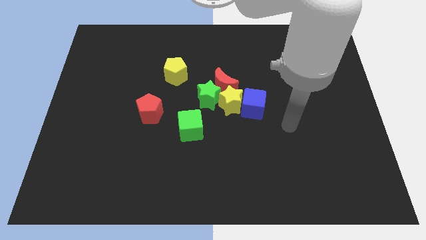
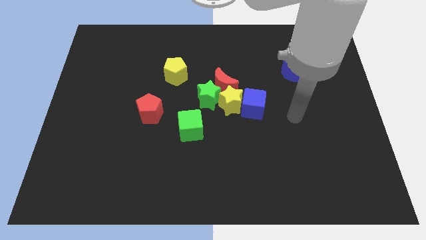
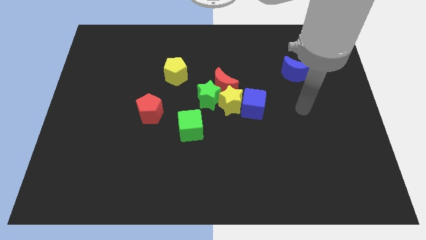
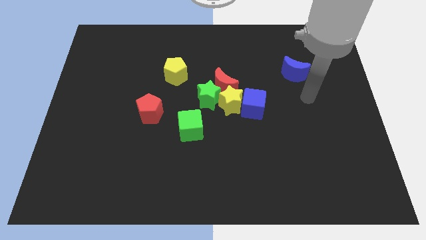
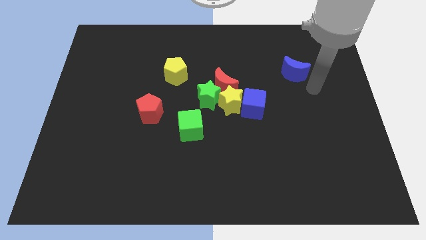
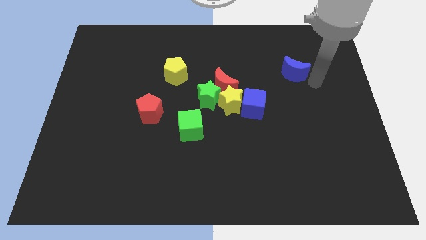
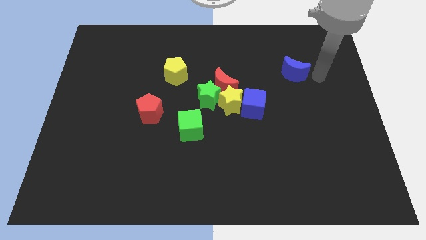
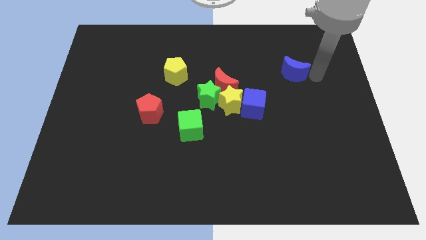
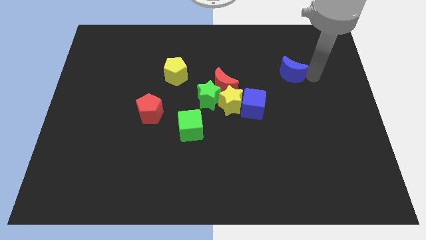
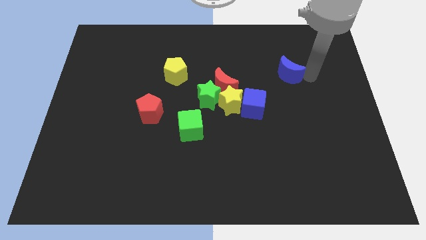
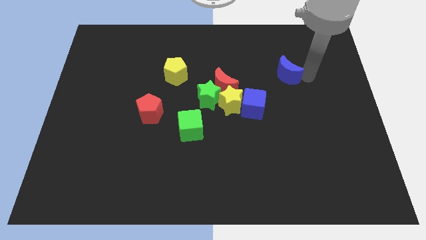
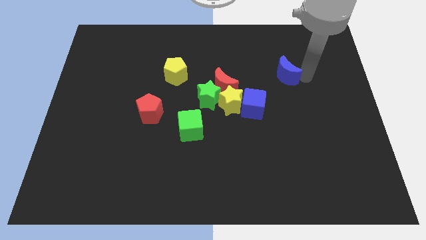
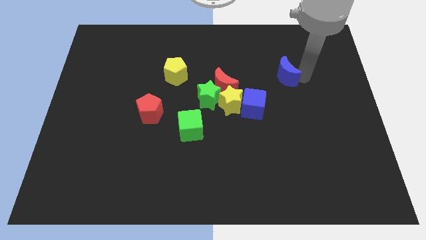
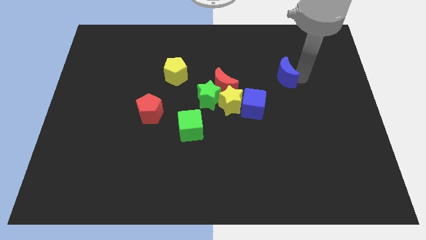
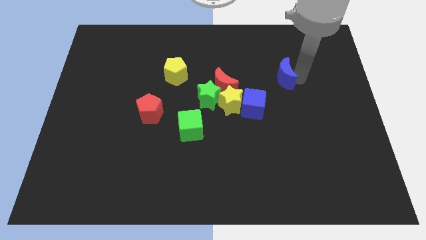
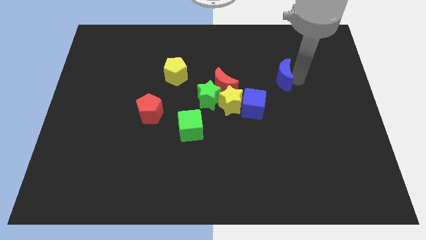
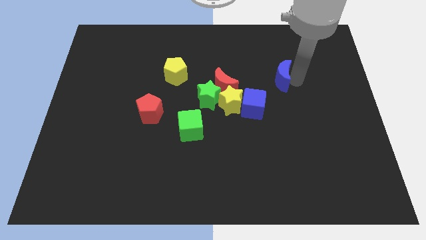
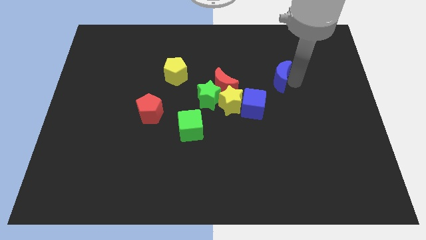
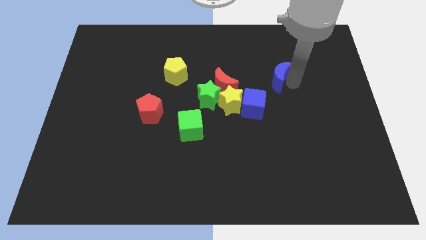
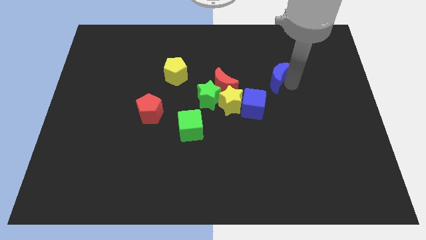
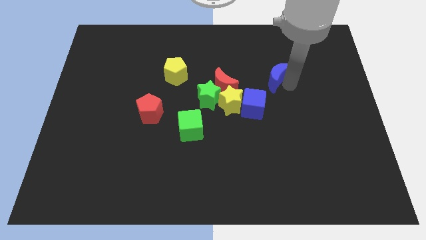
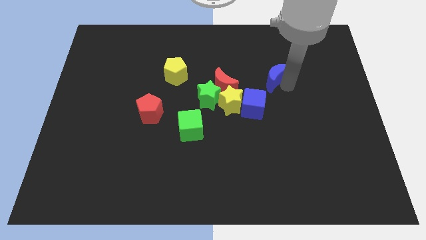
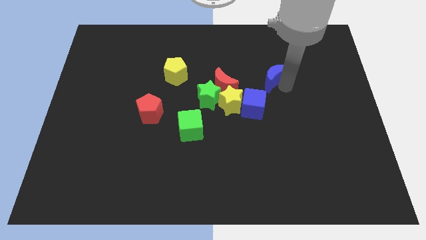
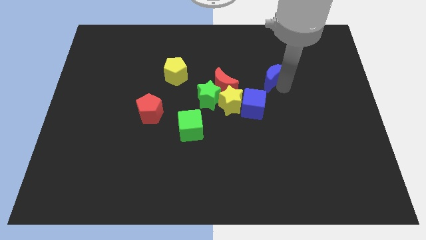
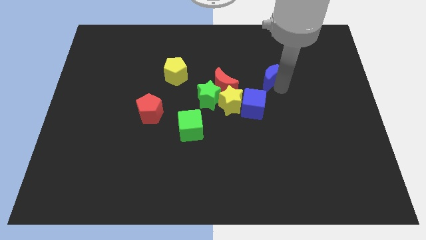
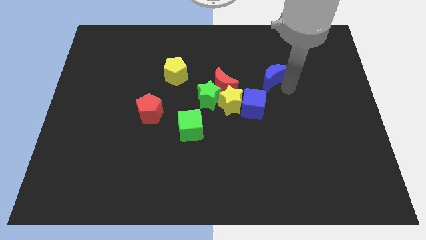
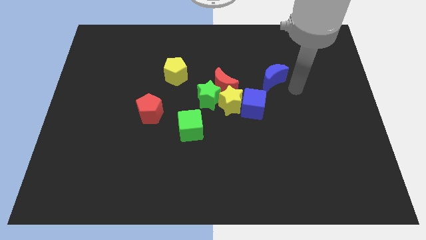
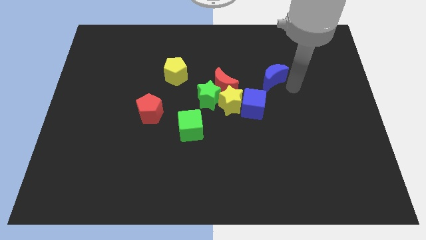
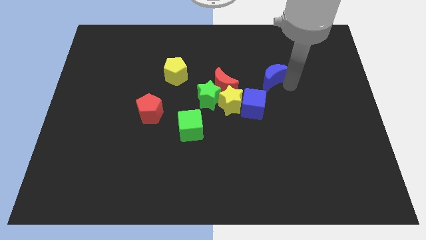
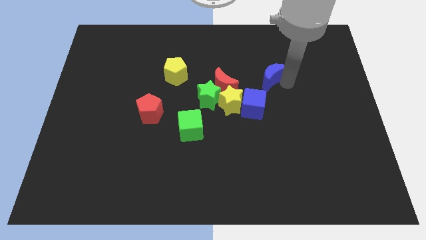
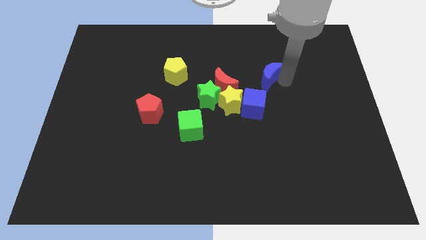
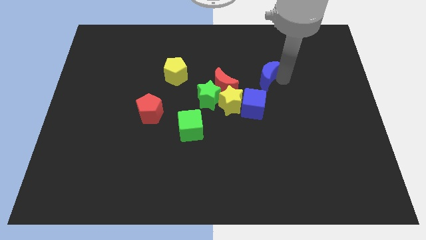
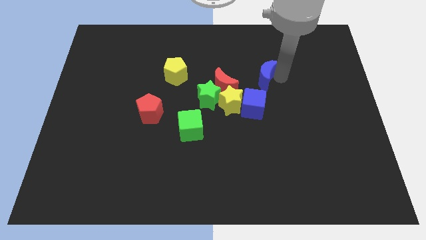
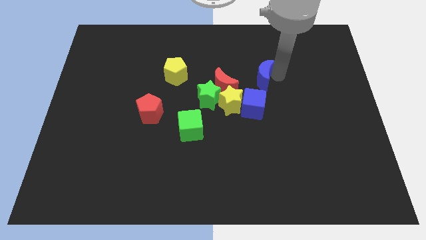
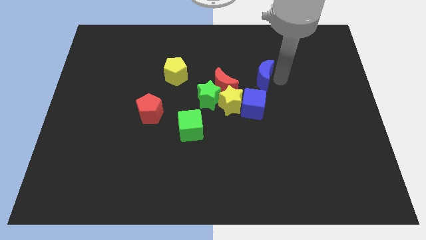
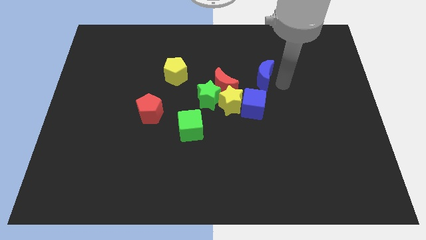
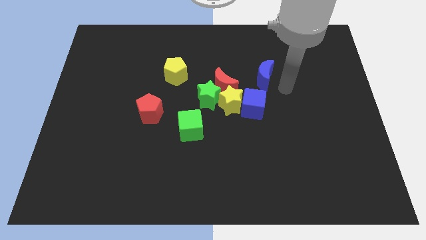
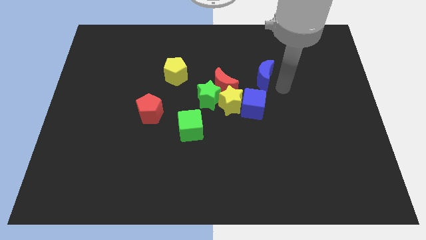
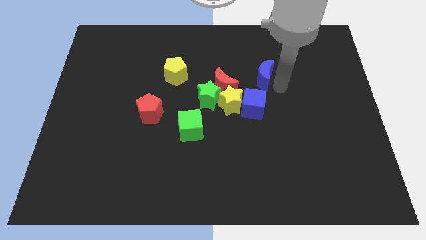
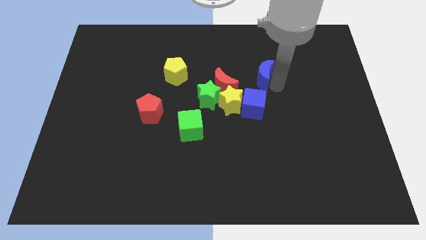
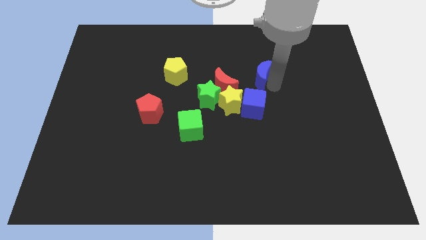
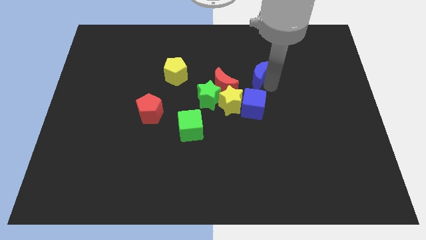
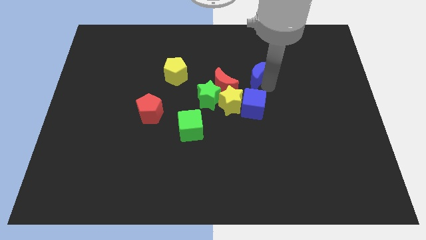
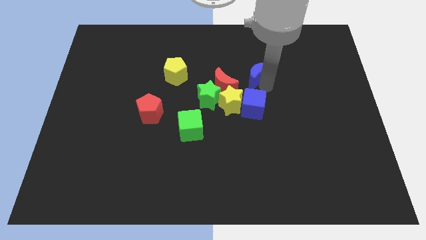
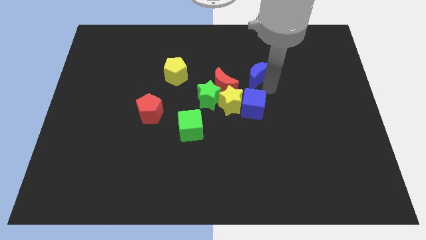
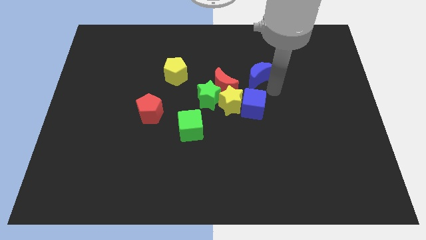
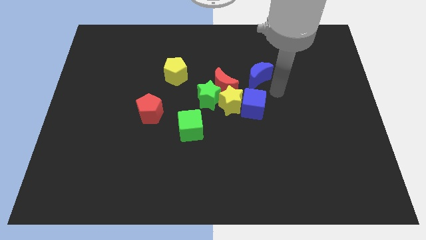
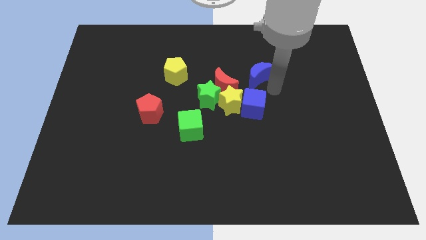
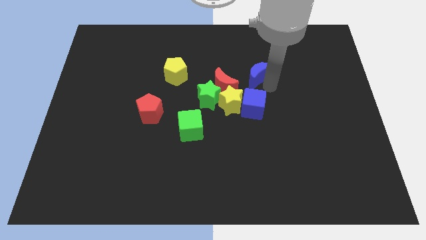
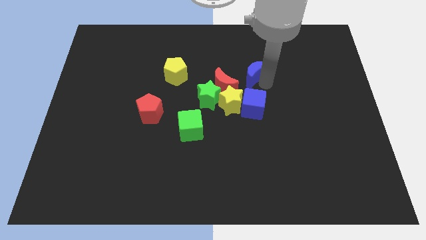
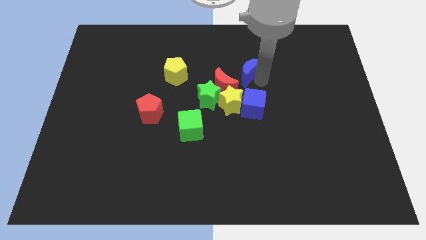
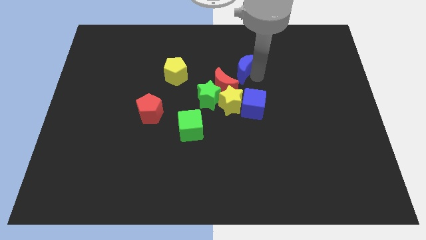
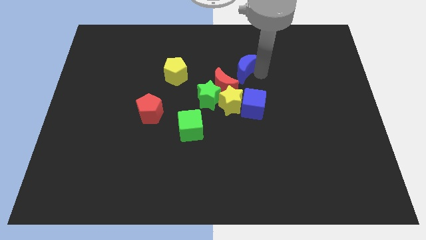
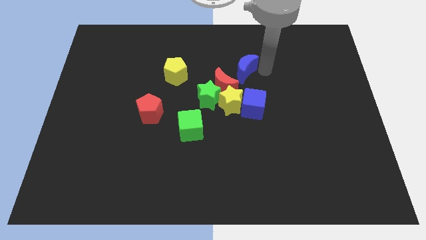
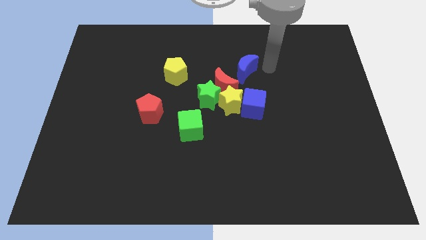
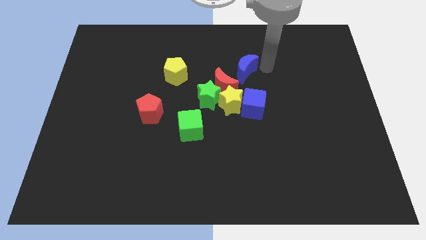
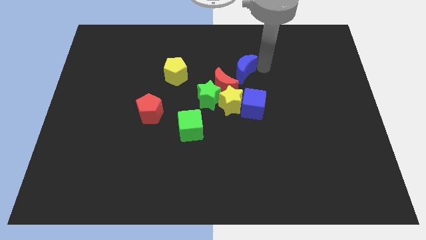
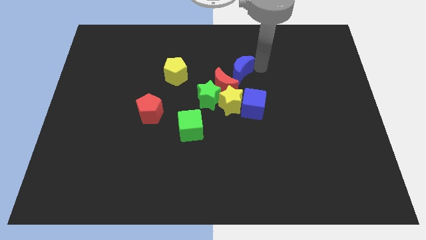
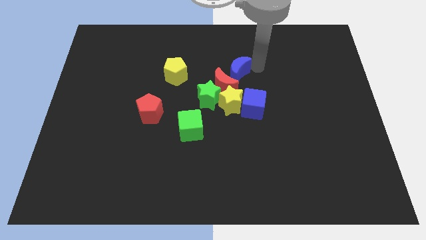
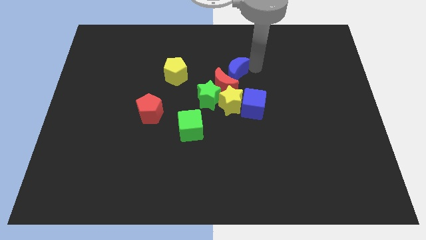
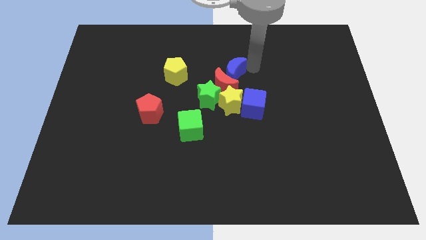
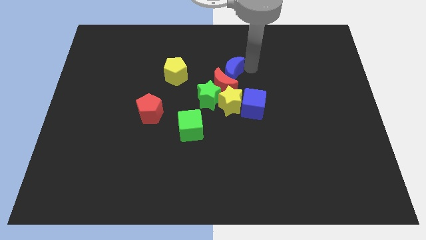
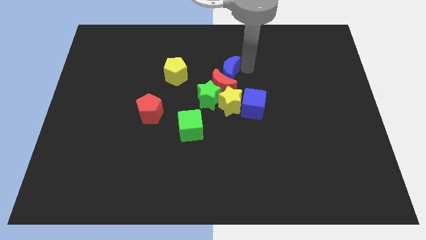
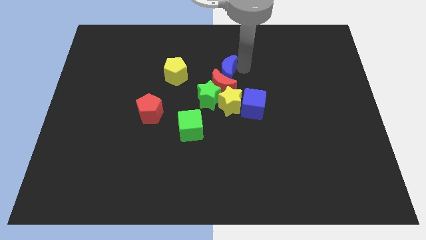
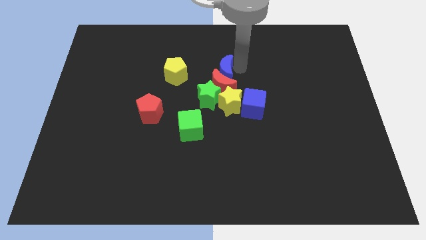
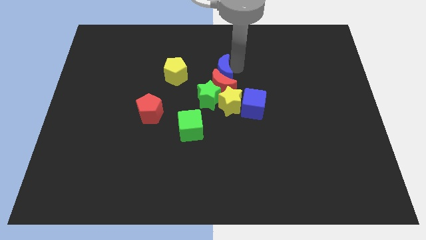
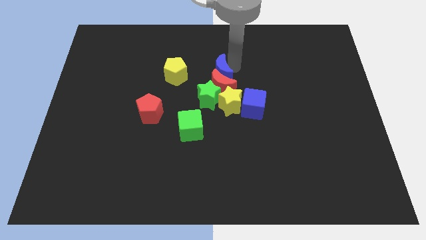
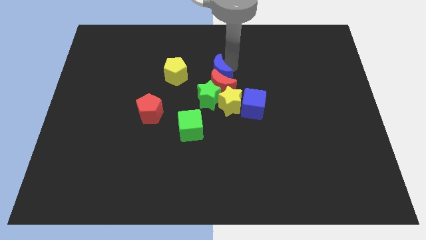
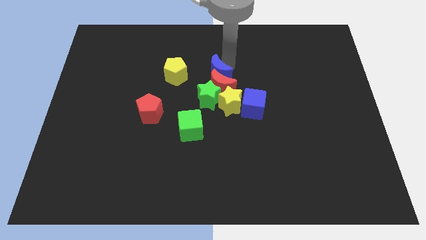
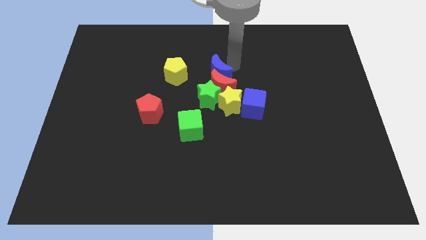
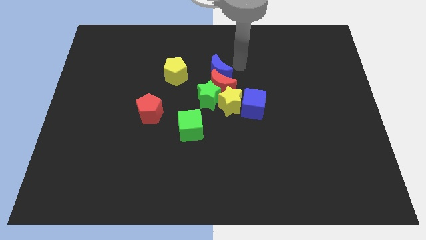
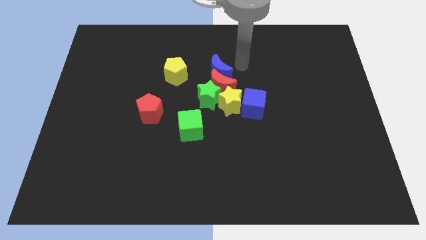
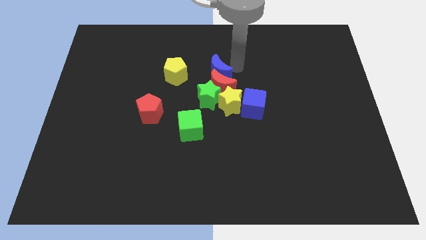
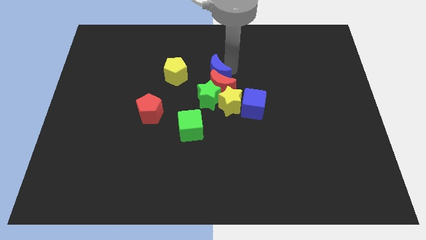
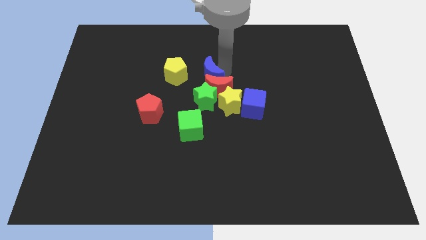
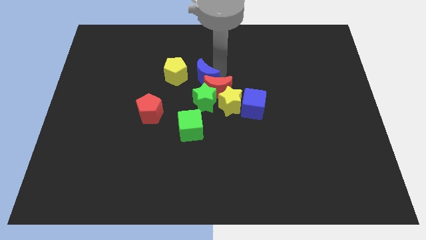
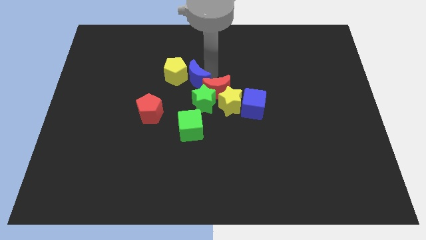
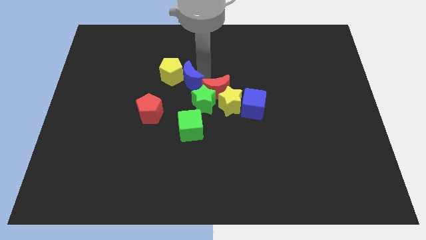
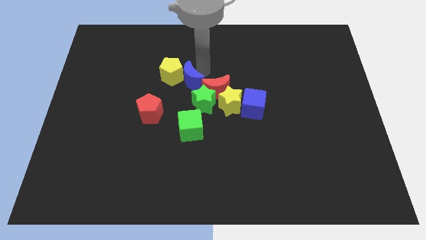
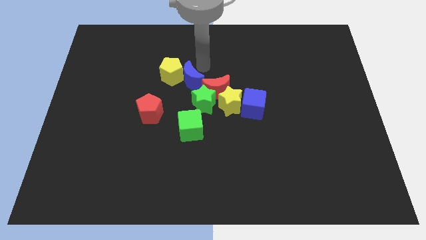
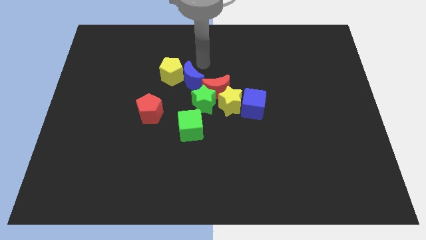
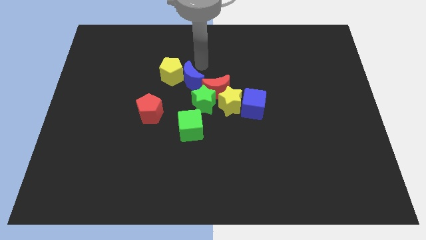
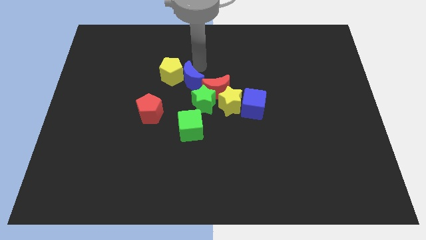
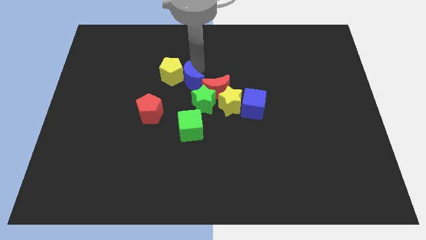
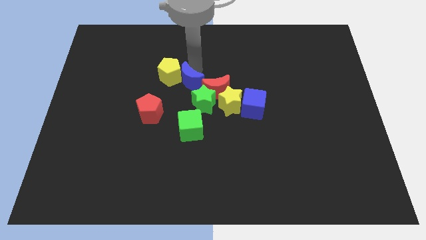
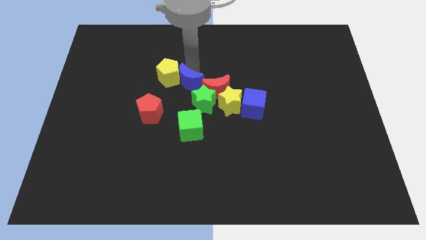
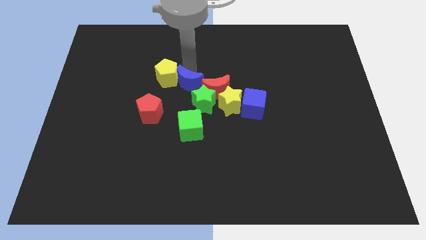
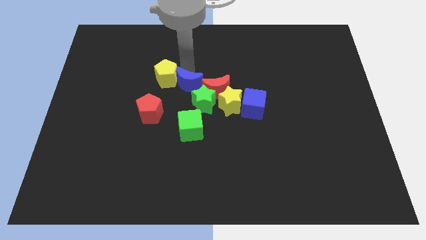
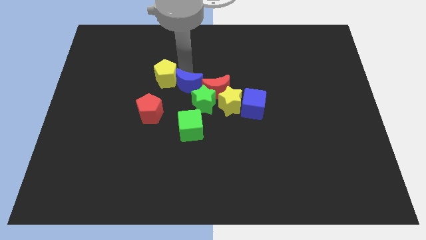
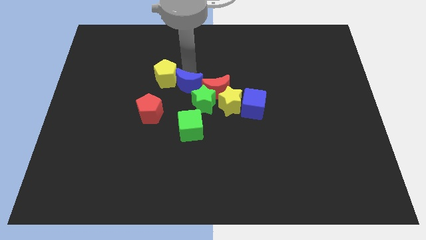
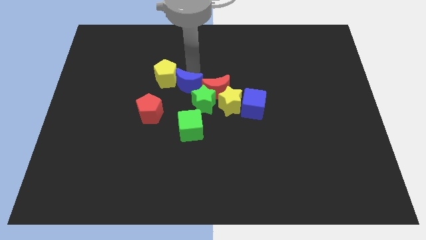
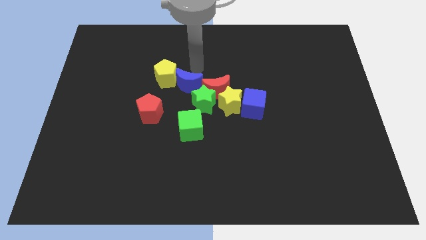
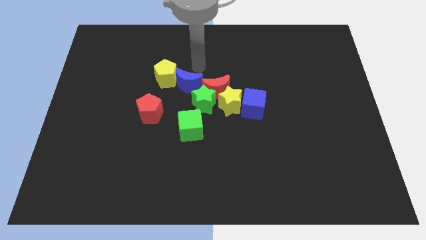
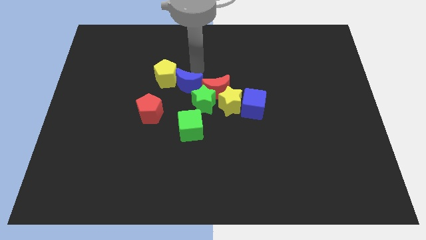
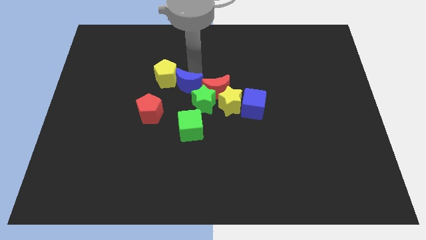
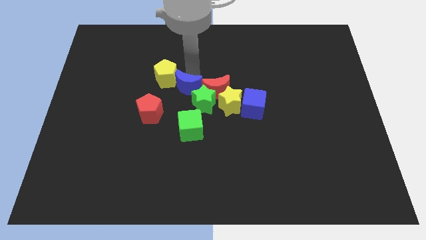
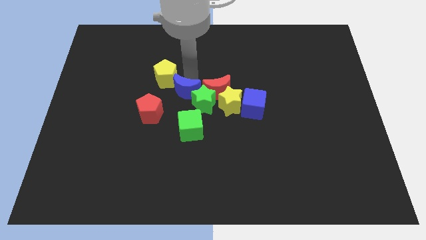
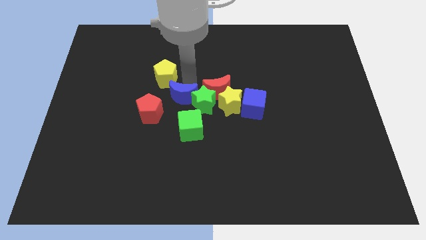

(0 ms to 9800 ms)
move the blue moon to the top left of the green cube
